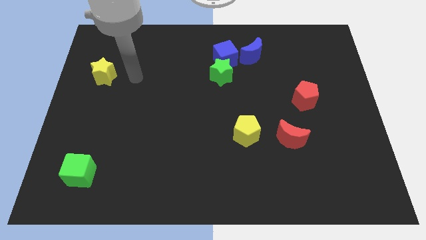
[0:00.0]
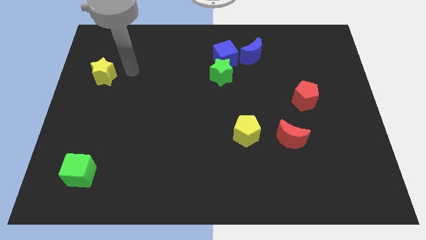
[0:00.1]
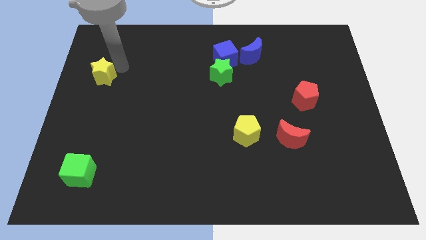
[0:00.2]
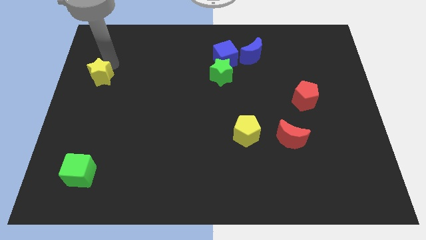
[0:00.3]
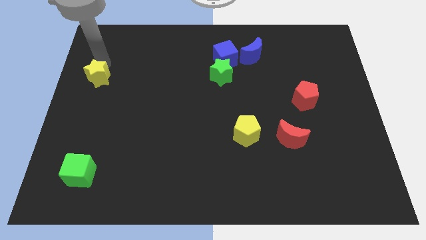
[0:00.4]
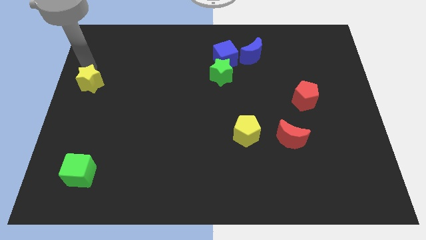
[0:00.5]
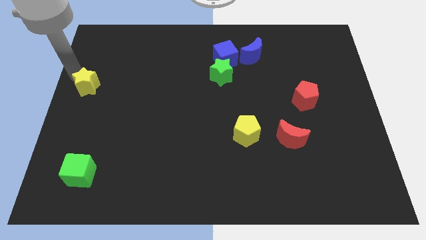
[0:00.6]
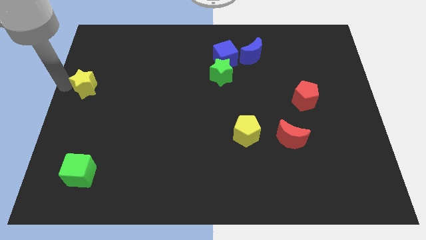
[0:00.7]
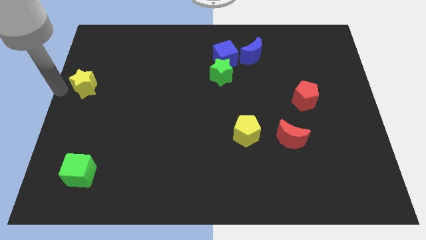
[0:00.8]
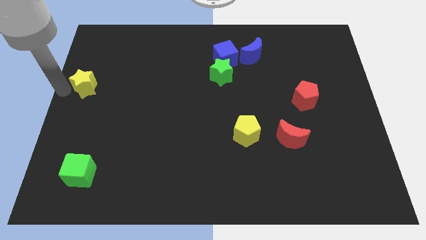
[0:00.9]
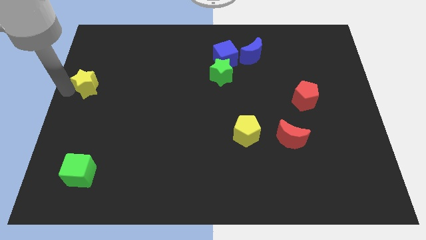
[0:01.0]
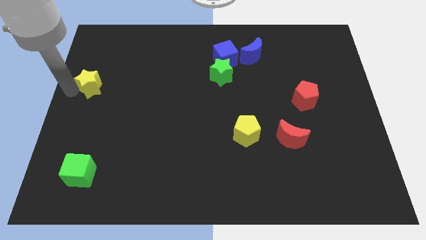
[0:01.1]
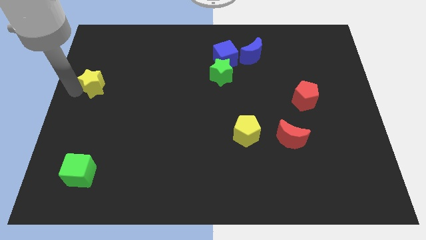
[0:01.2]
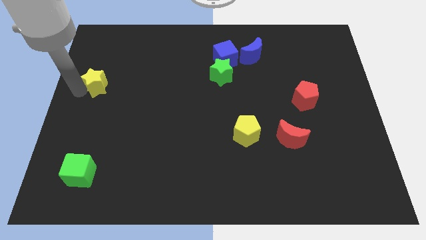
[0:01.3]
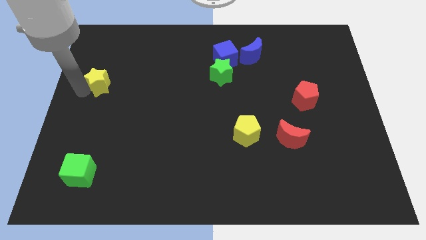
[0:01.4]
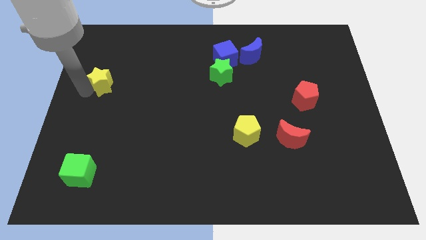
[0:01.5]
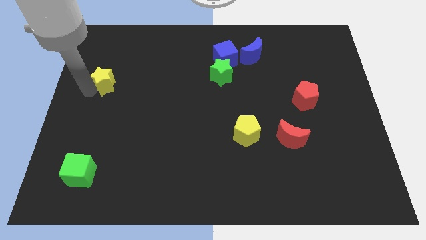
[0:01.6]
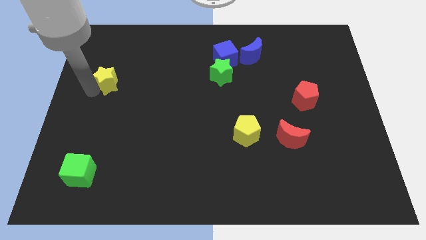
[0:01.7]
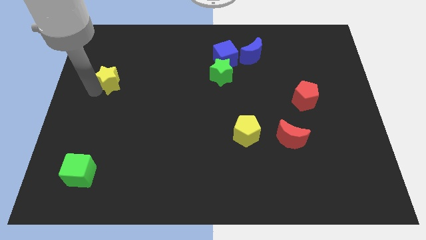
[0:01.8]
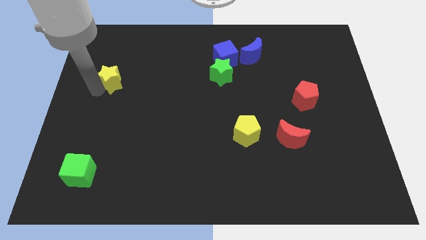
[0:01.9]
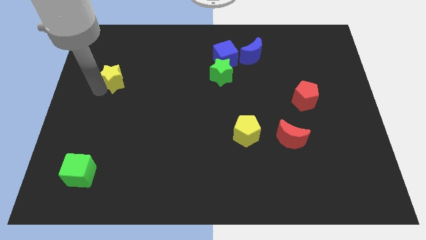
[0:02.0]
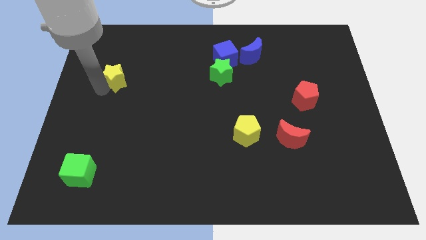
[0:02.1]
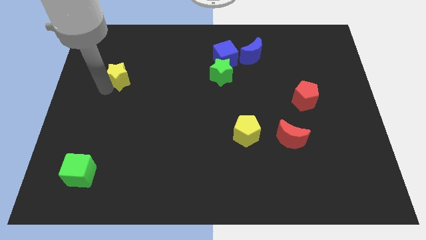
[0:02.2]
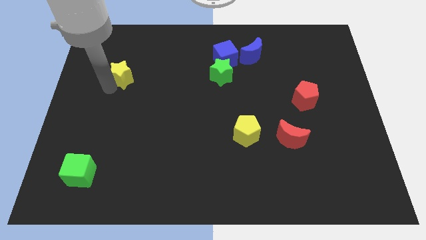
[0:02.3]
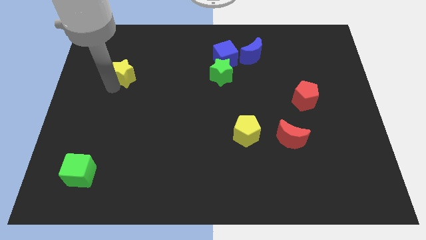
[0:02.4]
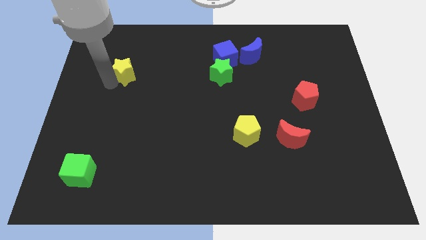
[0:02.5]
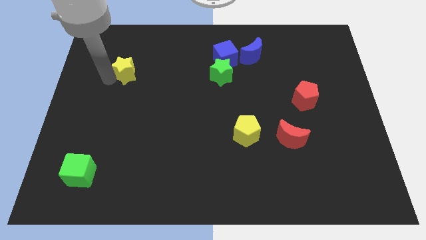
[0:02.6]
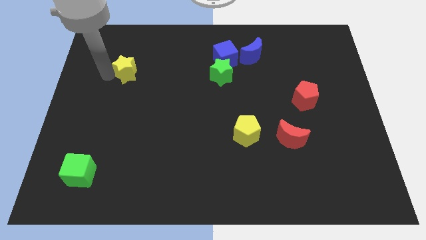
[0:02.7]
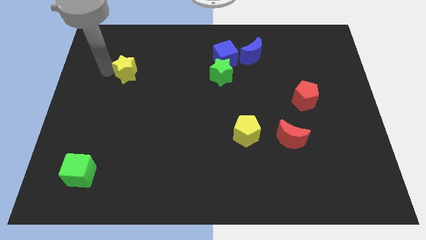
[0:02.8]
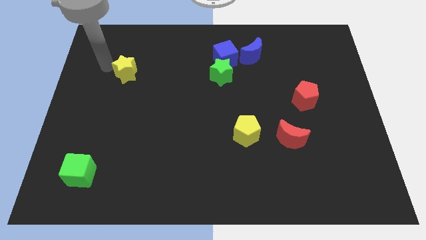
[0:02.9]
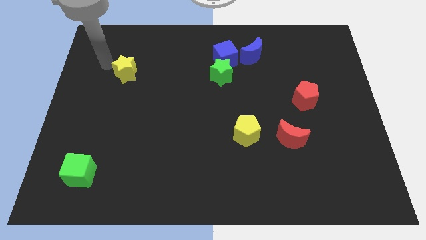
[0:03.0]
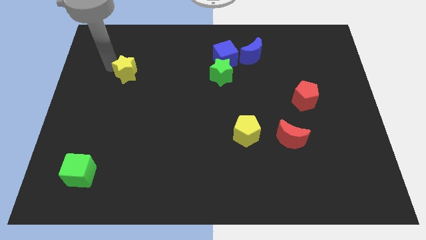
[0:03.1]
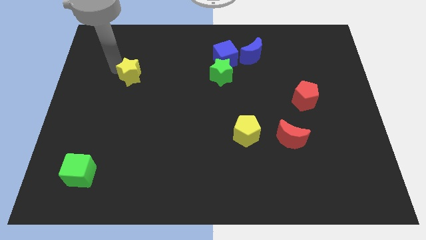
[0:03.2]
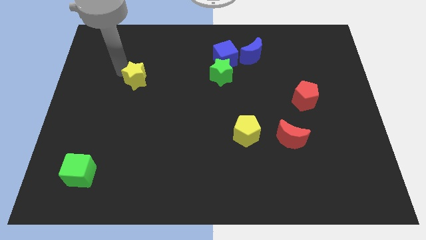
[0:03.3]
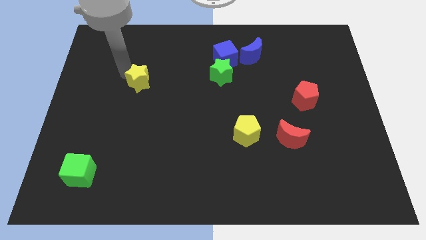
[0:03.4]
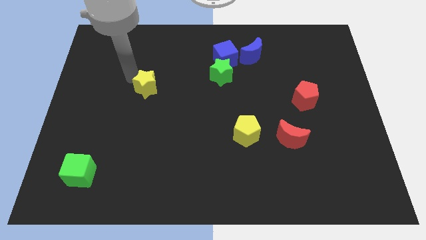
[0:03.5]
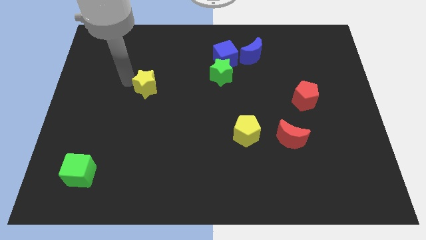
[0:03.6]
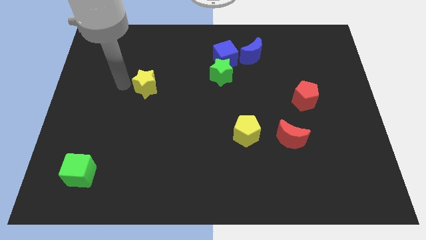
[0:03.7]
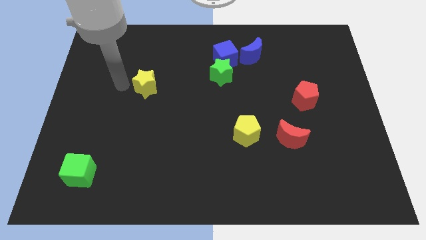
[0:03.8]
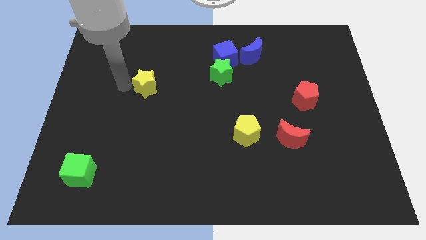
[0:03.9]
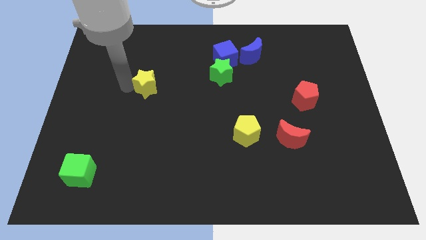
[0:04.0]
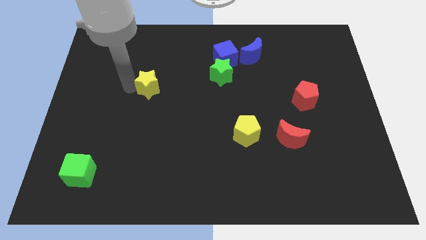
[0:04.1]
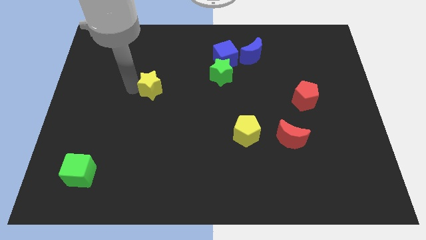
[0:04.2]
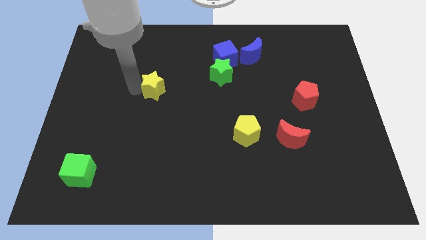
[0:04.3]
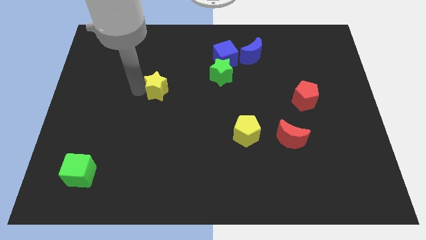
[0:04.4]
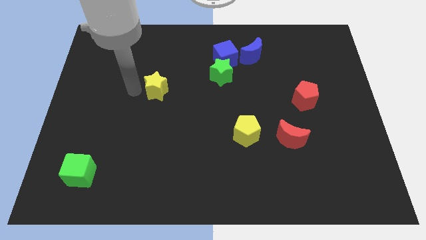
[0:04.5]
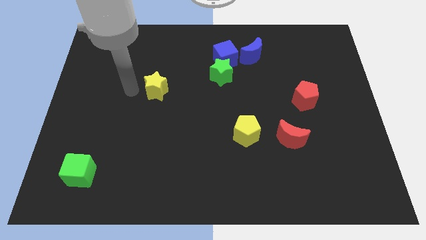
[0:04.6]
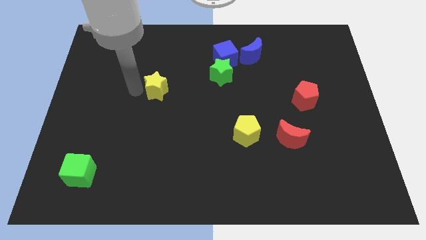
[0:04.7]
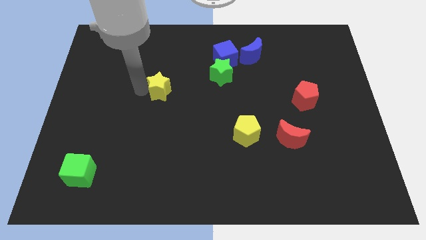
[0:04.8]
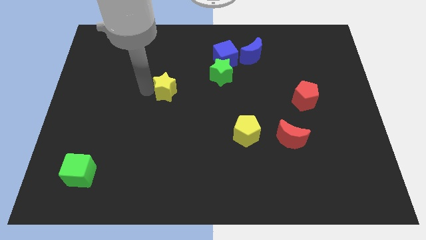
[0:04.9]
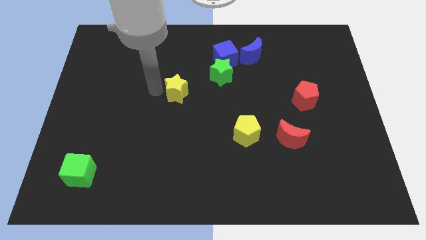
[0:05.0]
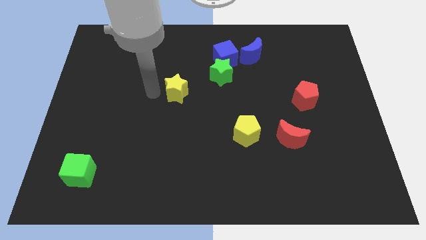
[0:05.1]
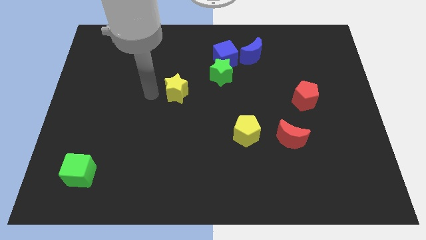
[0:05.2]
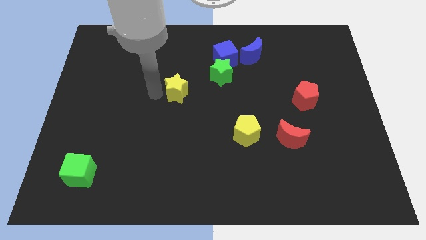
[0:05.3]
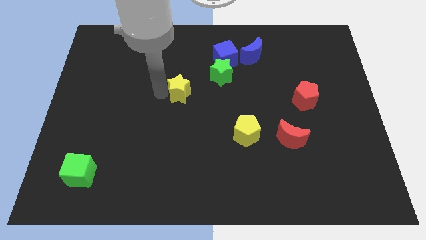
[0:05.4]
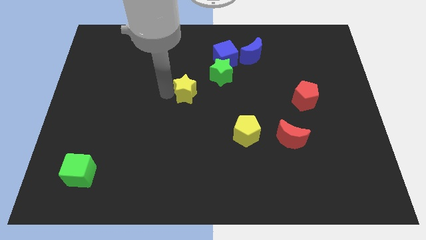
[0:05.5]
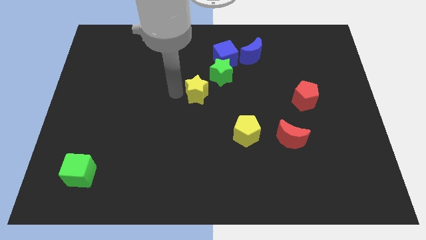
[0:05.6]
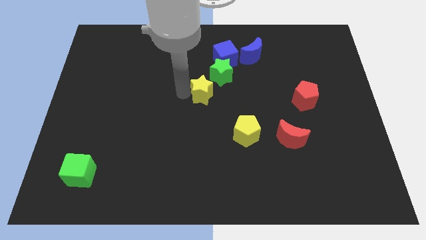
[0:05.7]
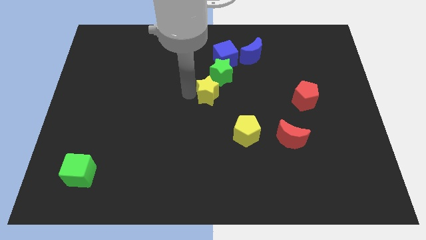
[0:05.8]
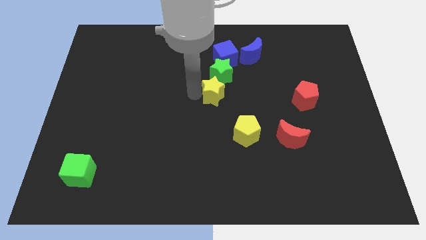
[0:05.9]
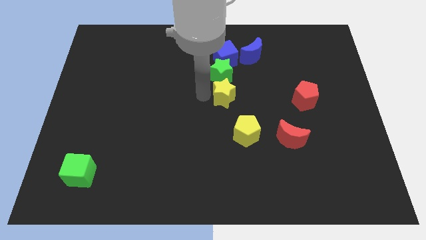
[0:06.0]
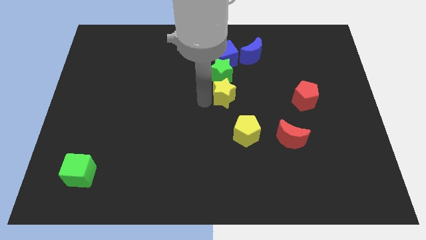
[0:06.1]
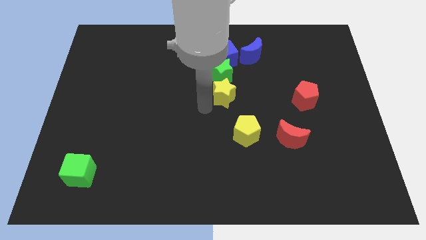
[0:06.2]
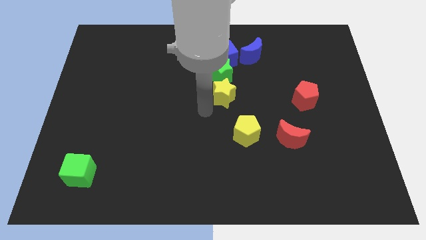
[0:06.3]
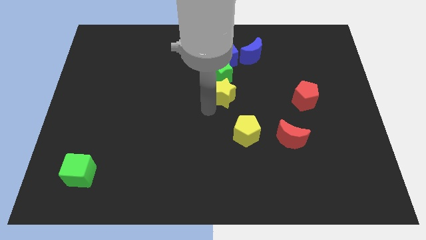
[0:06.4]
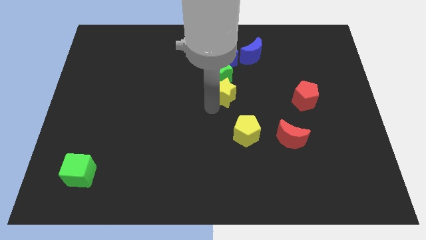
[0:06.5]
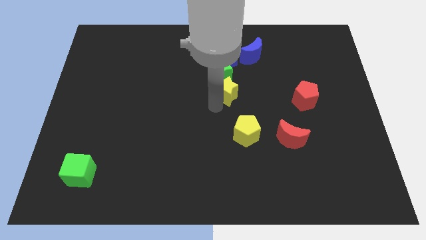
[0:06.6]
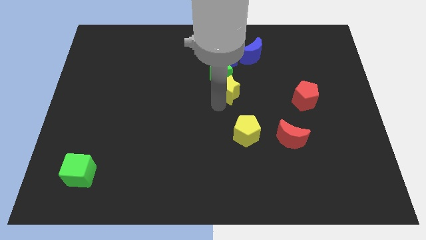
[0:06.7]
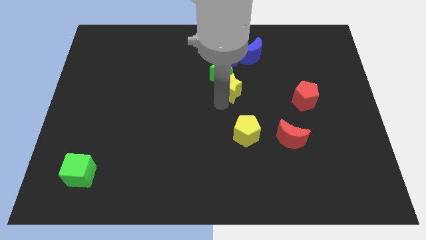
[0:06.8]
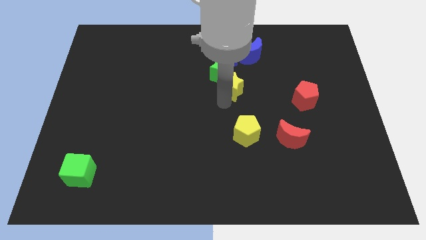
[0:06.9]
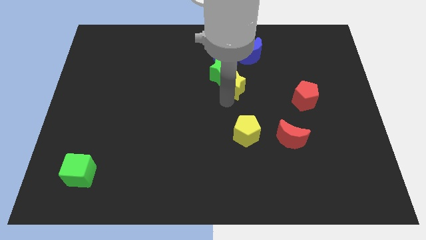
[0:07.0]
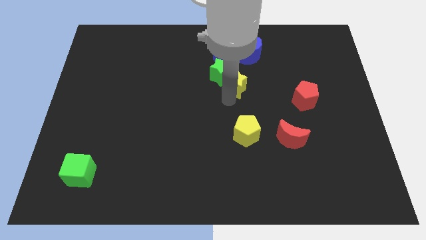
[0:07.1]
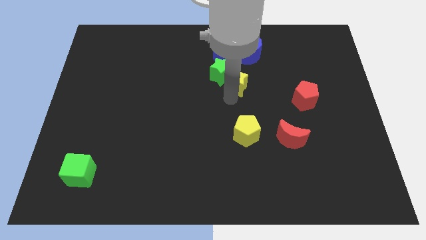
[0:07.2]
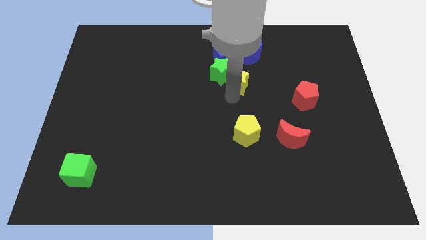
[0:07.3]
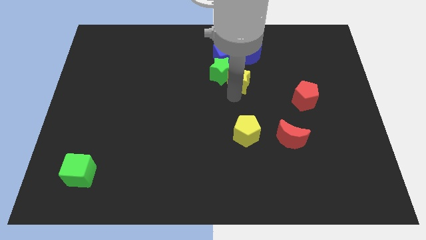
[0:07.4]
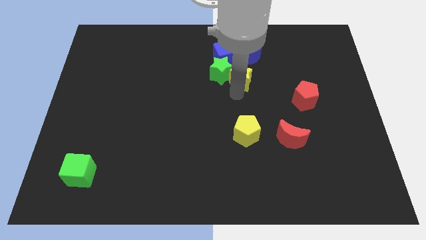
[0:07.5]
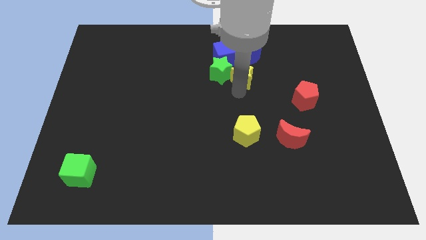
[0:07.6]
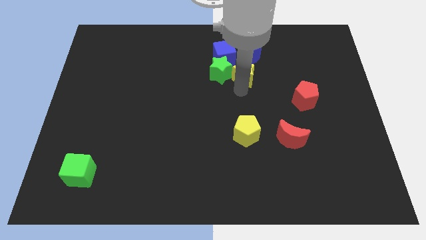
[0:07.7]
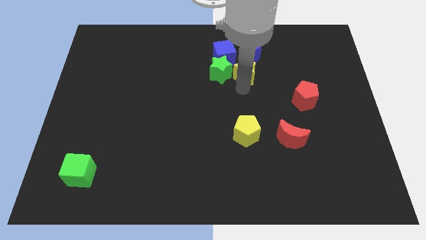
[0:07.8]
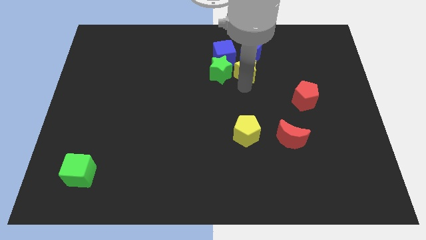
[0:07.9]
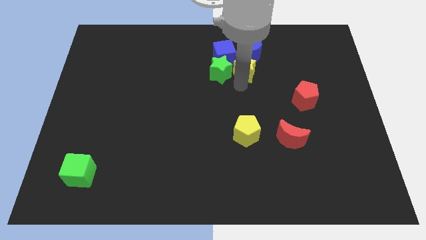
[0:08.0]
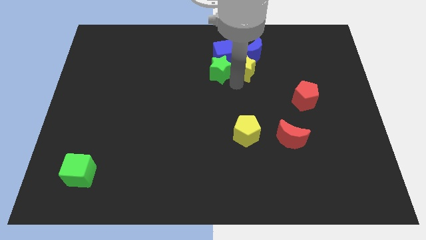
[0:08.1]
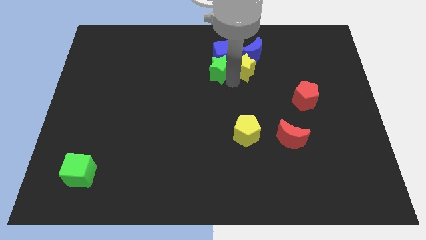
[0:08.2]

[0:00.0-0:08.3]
put the yellow star to the right of the blue cube
